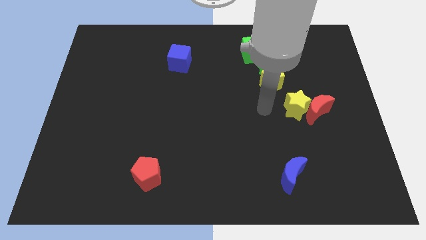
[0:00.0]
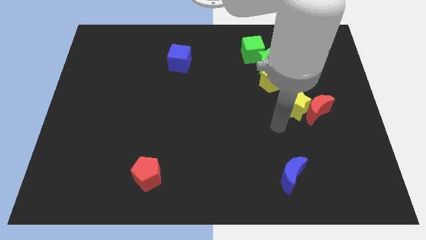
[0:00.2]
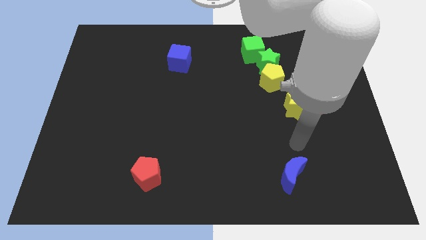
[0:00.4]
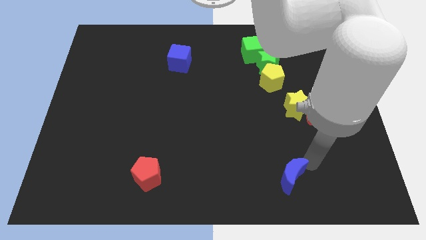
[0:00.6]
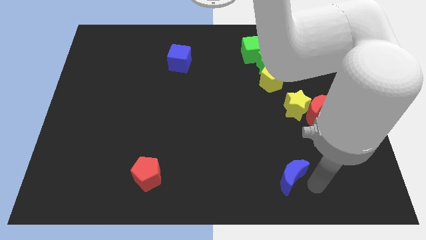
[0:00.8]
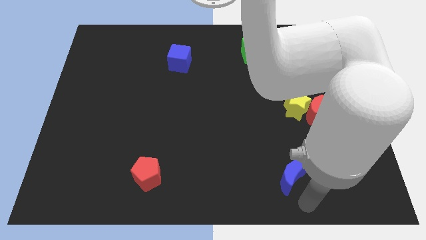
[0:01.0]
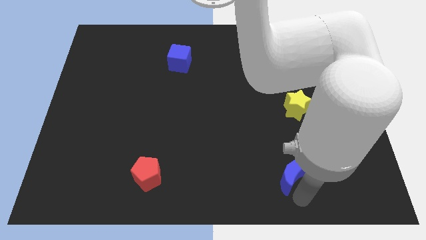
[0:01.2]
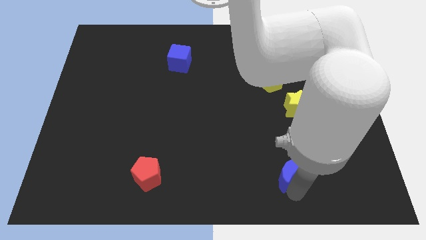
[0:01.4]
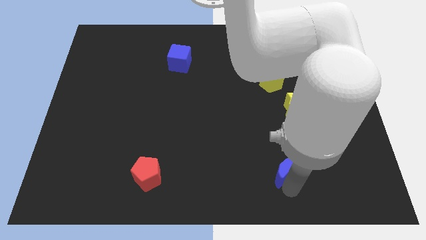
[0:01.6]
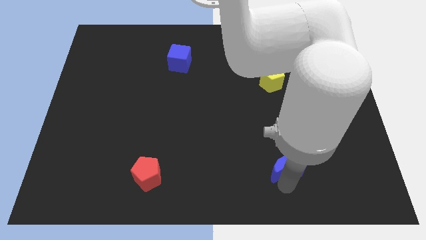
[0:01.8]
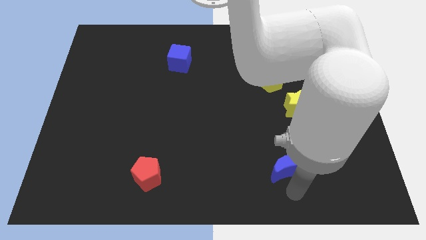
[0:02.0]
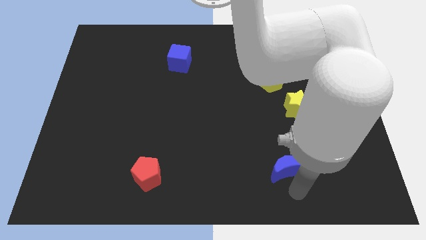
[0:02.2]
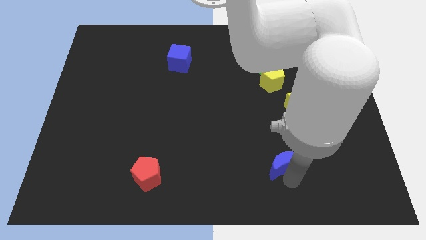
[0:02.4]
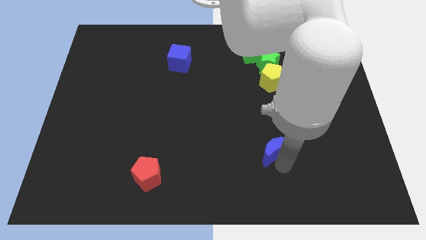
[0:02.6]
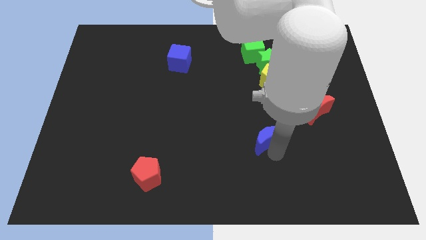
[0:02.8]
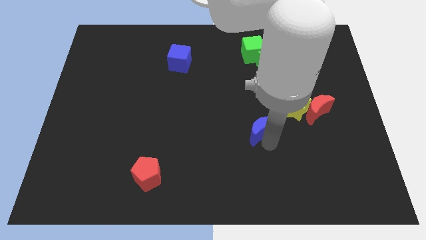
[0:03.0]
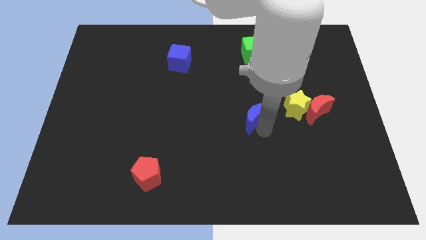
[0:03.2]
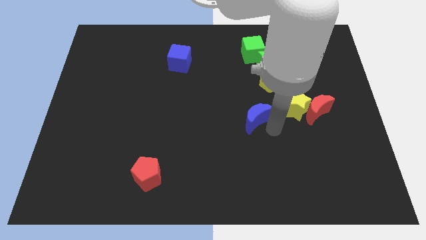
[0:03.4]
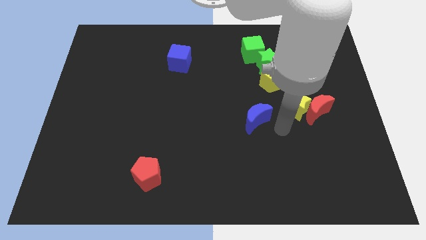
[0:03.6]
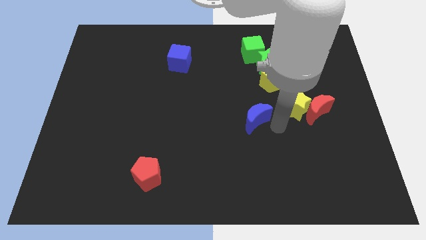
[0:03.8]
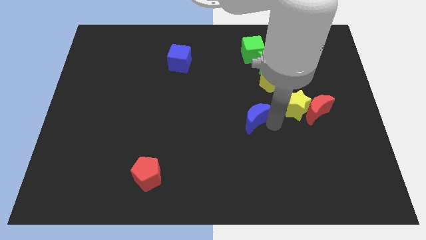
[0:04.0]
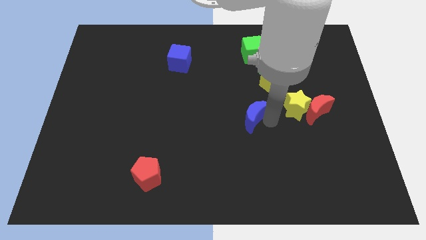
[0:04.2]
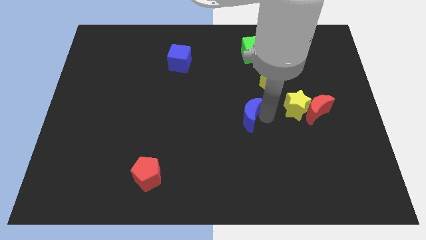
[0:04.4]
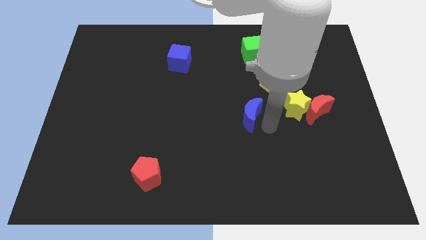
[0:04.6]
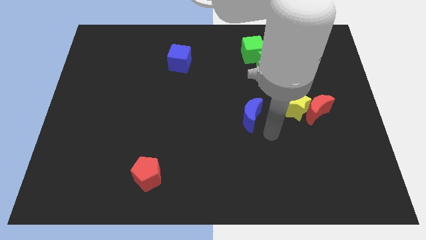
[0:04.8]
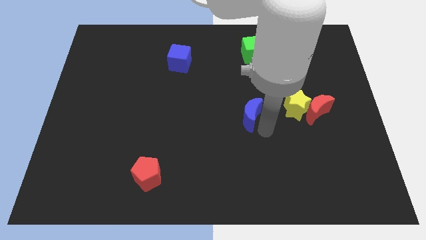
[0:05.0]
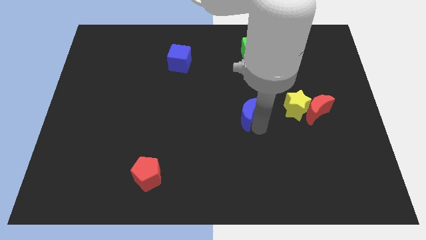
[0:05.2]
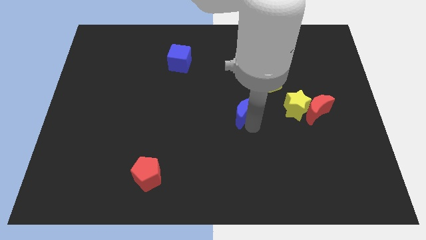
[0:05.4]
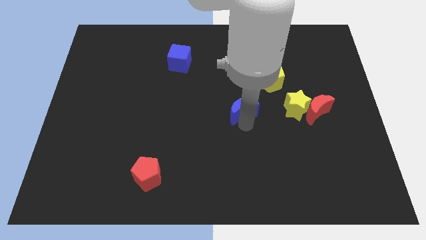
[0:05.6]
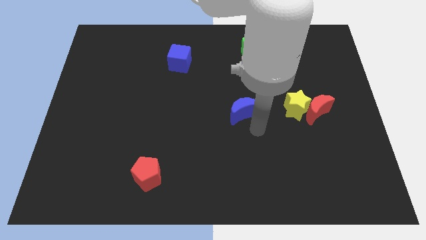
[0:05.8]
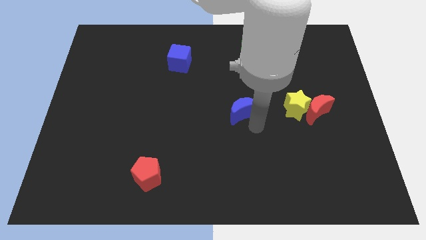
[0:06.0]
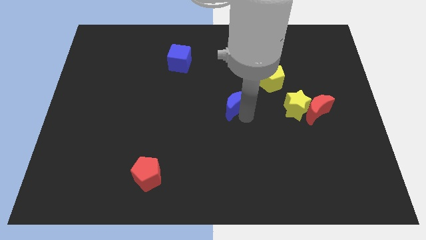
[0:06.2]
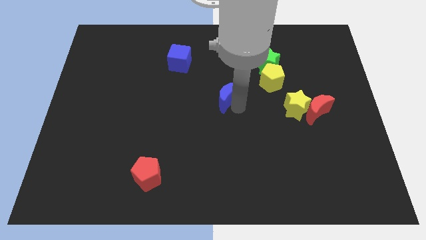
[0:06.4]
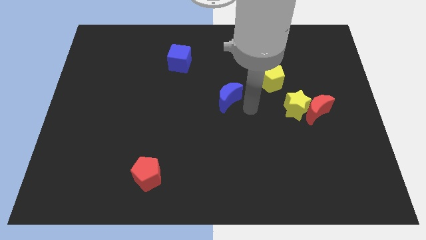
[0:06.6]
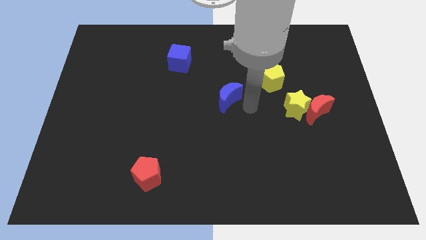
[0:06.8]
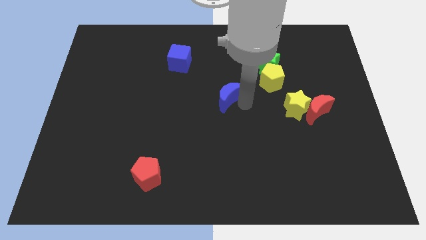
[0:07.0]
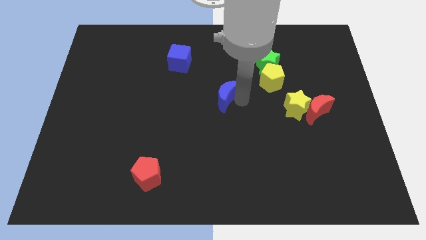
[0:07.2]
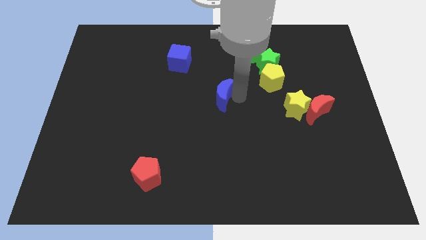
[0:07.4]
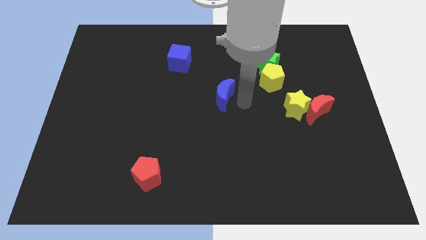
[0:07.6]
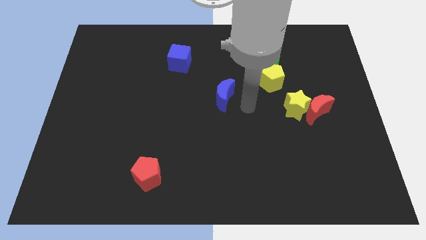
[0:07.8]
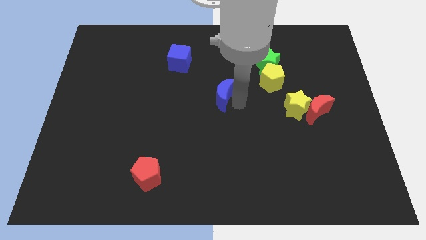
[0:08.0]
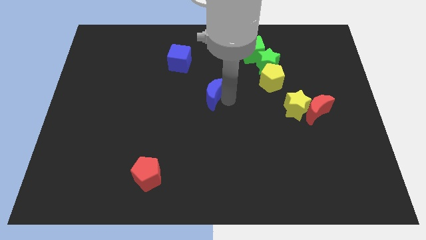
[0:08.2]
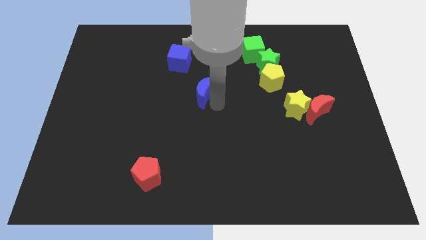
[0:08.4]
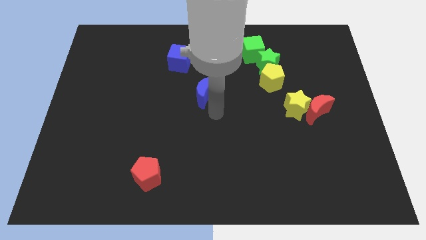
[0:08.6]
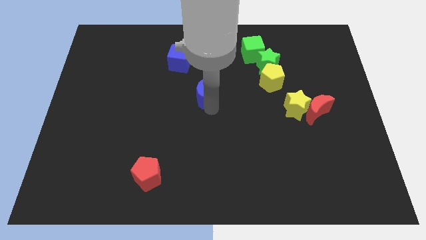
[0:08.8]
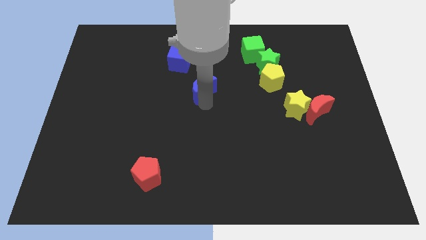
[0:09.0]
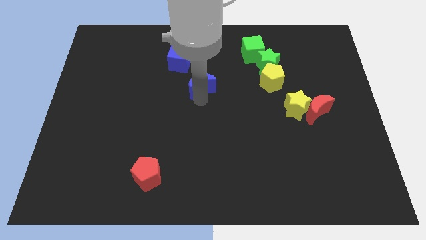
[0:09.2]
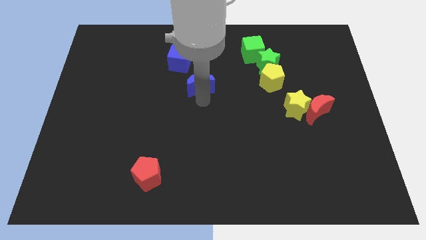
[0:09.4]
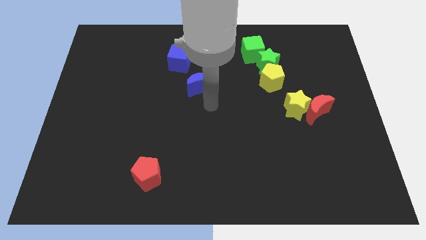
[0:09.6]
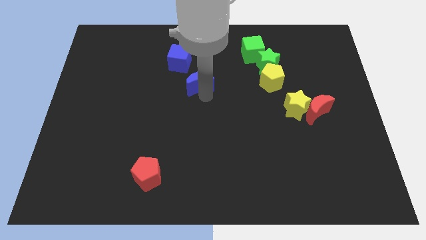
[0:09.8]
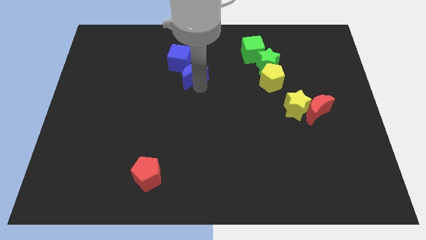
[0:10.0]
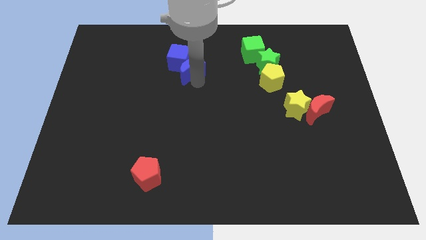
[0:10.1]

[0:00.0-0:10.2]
push the blue moon to the blue cube

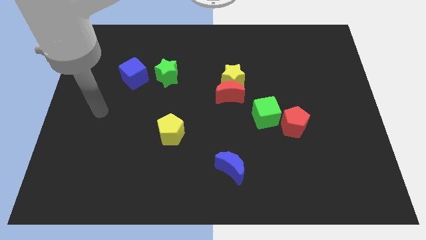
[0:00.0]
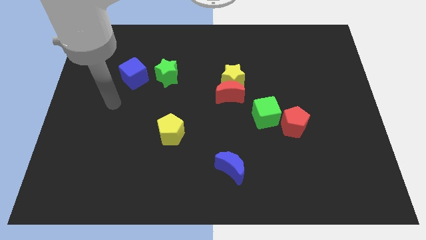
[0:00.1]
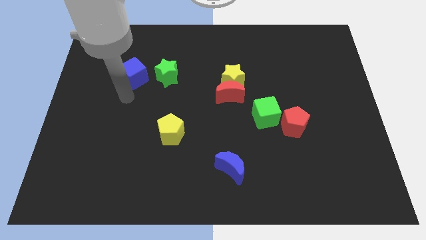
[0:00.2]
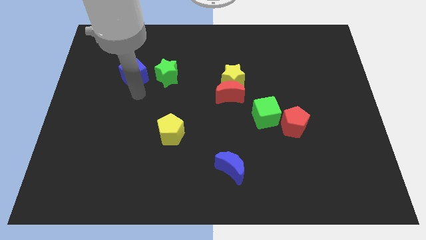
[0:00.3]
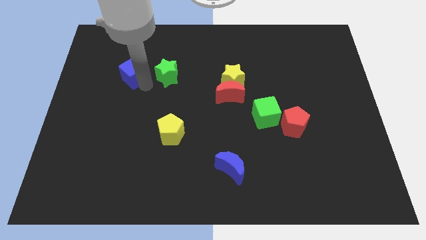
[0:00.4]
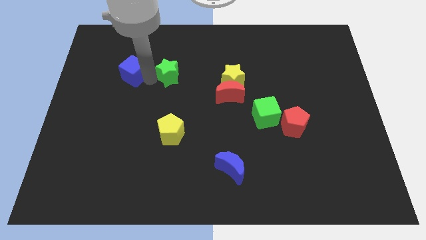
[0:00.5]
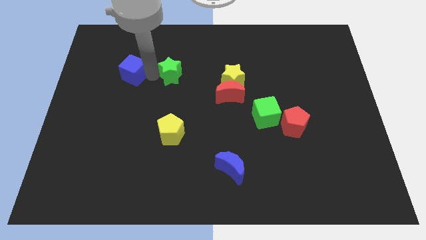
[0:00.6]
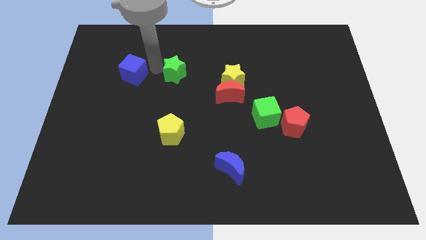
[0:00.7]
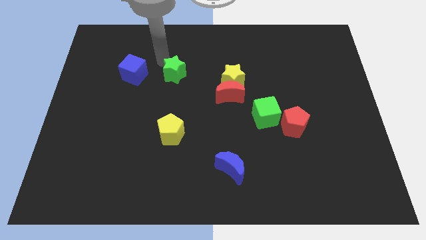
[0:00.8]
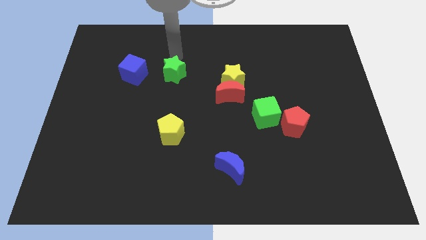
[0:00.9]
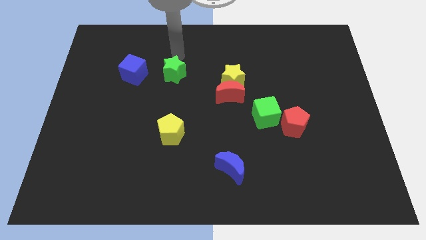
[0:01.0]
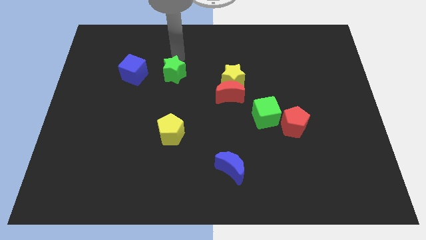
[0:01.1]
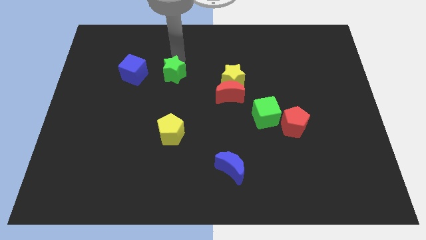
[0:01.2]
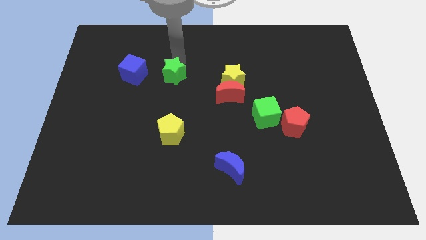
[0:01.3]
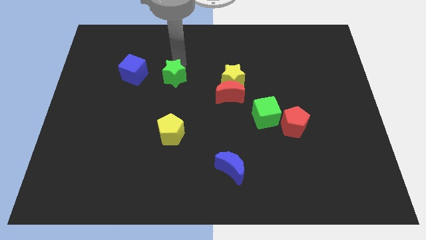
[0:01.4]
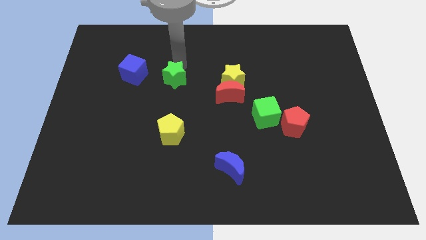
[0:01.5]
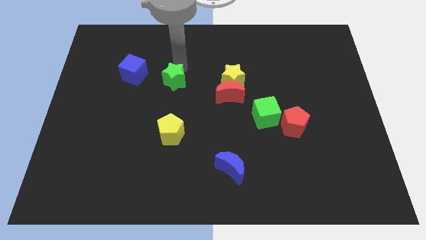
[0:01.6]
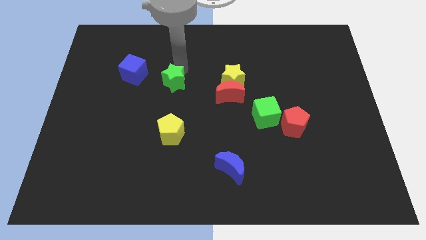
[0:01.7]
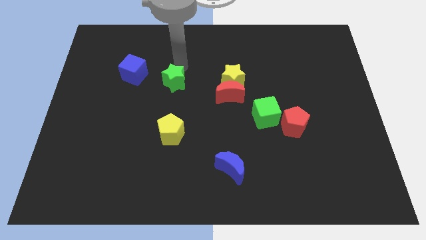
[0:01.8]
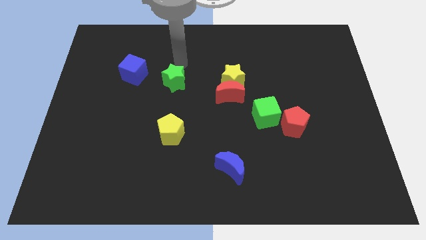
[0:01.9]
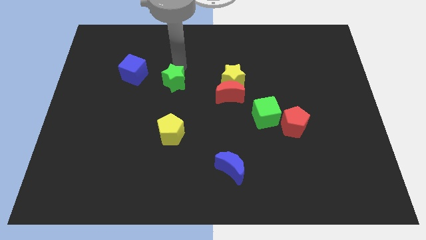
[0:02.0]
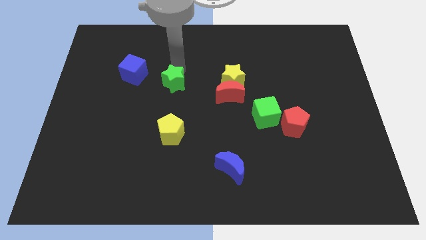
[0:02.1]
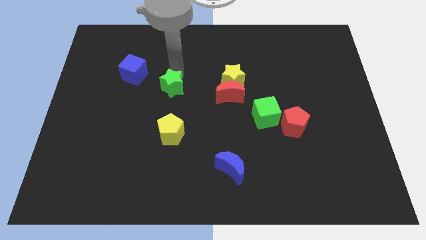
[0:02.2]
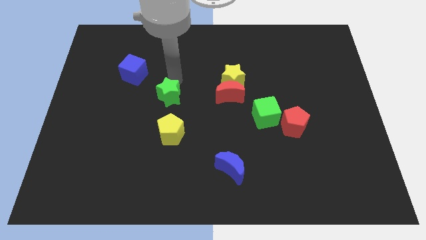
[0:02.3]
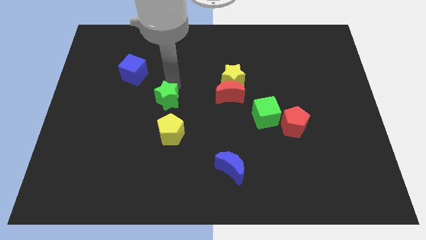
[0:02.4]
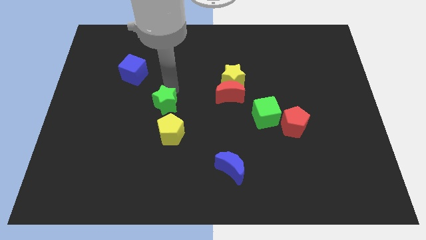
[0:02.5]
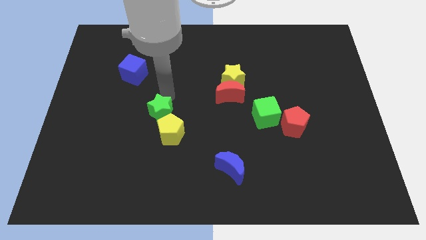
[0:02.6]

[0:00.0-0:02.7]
push the green star to the yellow pentagon
